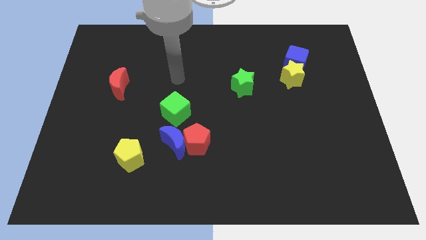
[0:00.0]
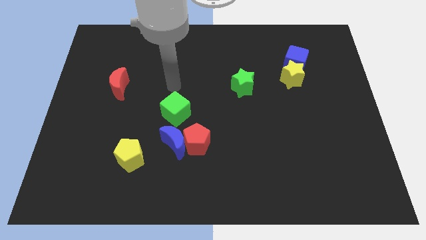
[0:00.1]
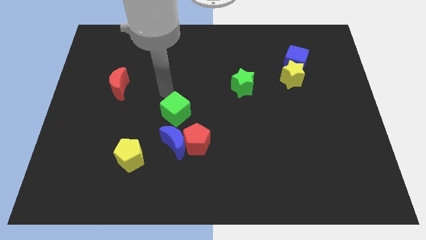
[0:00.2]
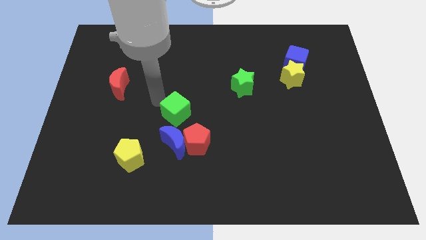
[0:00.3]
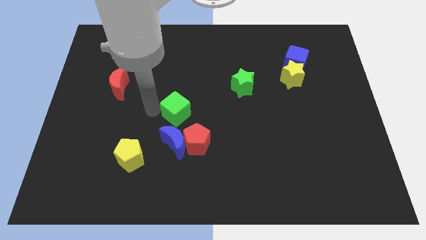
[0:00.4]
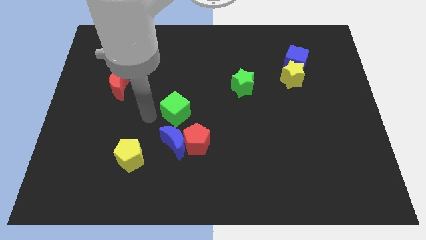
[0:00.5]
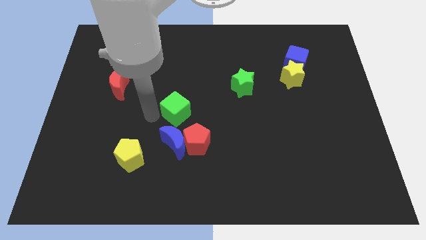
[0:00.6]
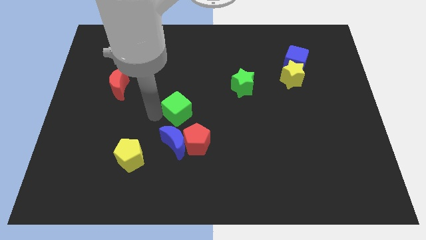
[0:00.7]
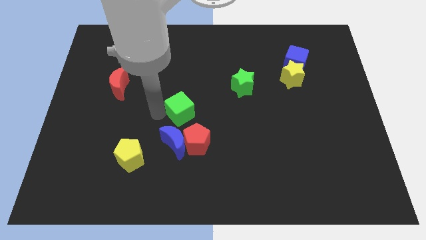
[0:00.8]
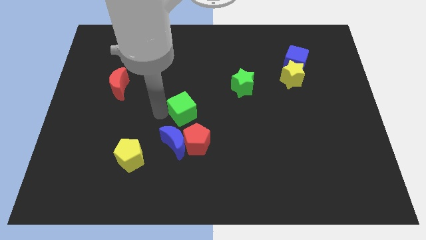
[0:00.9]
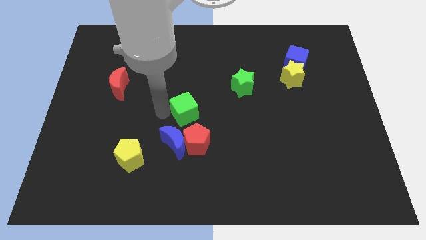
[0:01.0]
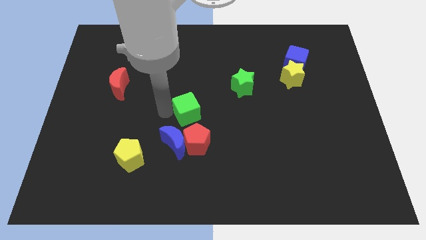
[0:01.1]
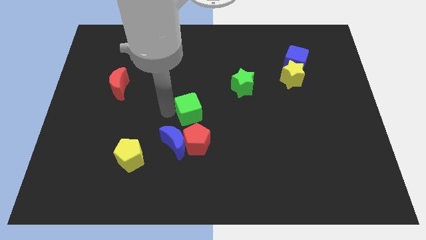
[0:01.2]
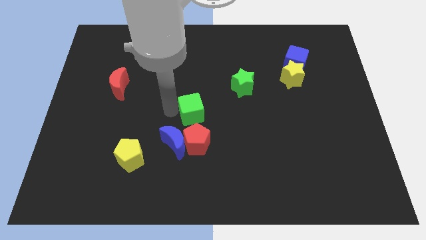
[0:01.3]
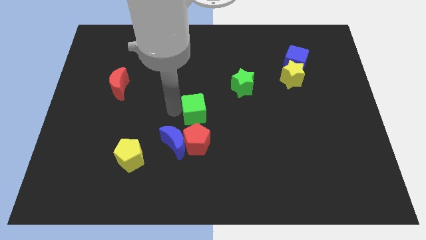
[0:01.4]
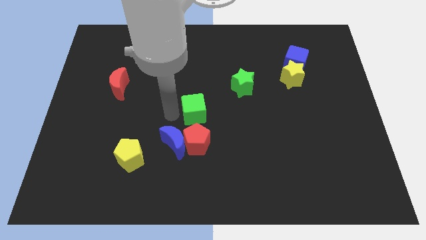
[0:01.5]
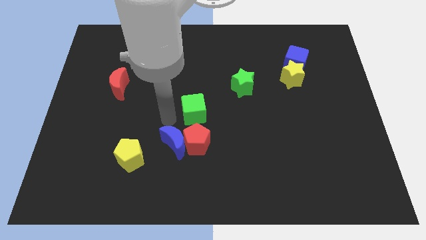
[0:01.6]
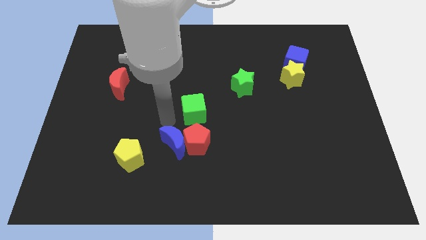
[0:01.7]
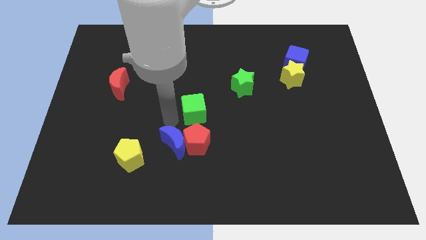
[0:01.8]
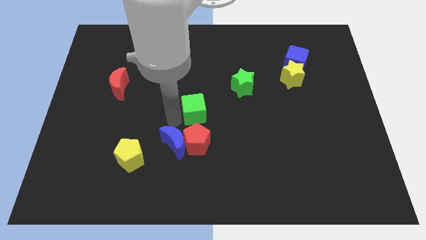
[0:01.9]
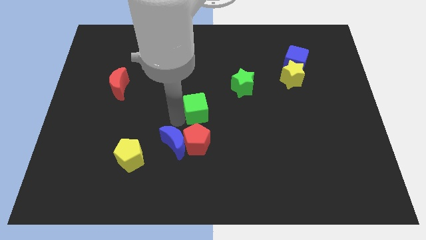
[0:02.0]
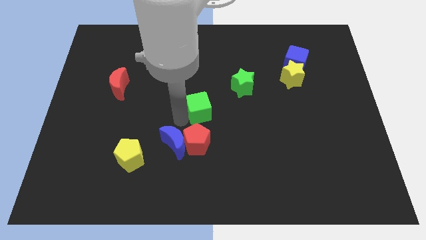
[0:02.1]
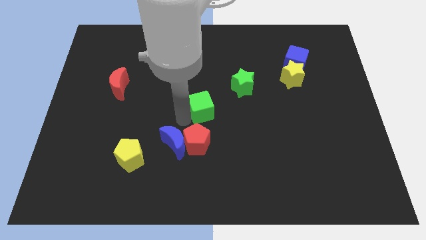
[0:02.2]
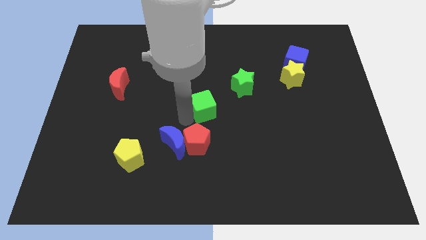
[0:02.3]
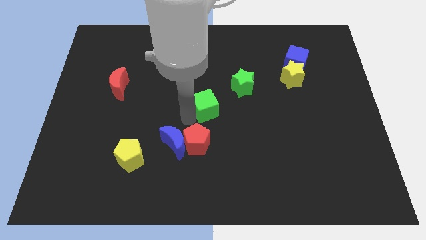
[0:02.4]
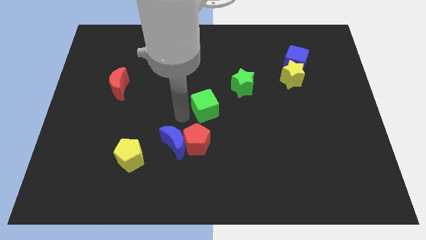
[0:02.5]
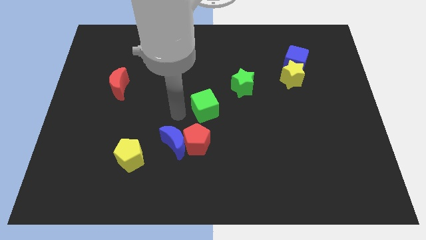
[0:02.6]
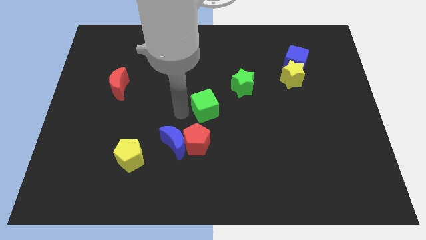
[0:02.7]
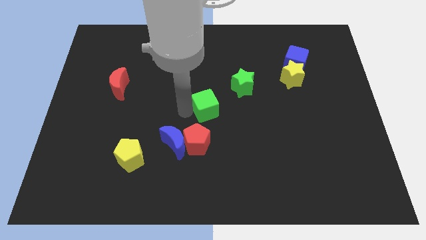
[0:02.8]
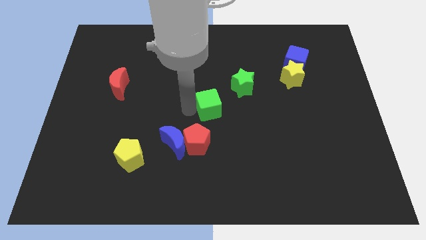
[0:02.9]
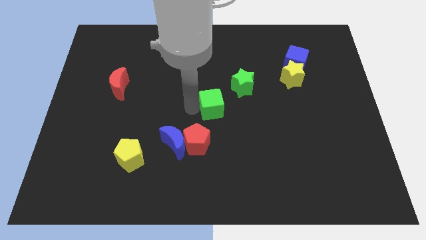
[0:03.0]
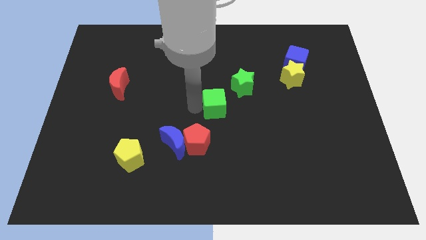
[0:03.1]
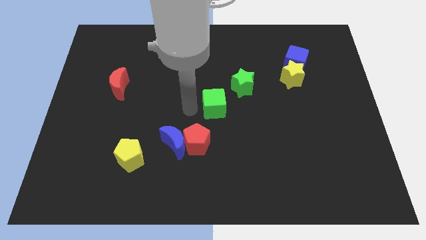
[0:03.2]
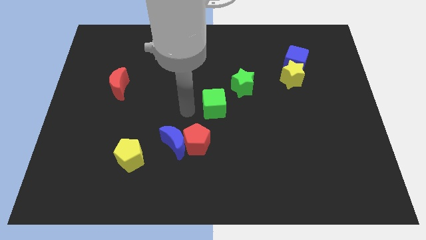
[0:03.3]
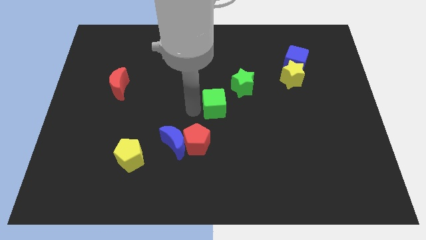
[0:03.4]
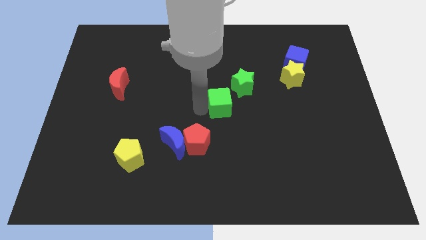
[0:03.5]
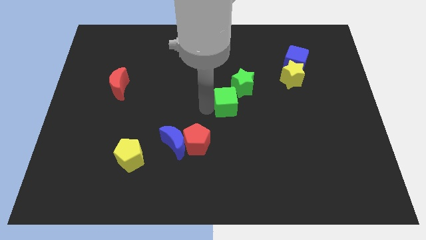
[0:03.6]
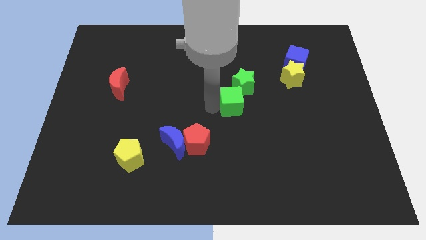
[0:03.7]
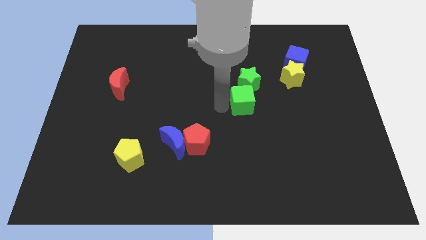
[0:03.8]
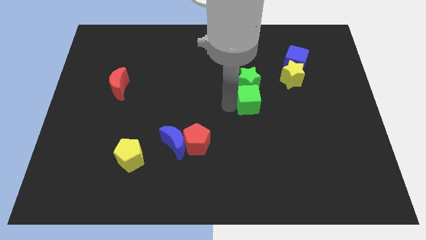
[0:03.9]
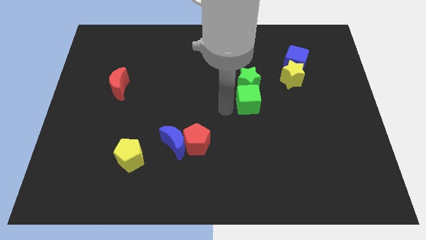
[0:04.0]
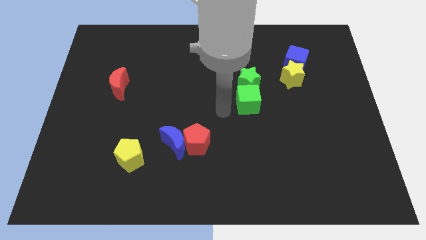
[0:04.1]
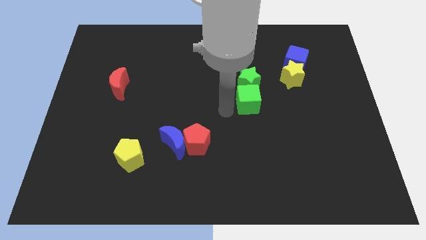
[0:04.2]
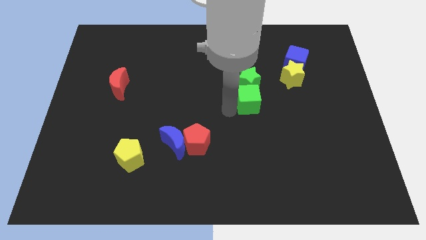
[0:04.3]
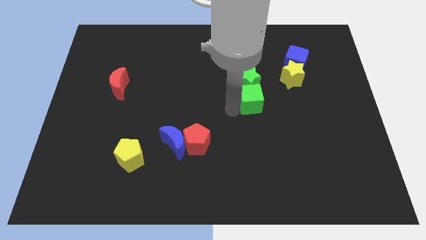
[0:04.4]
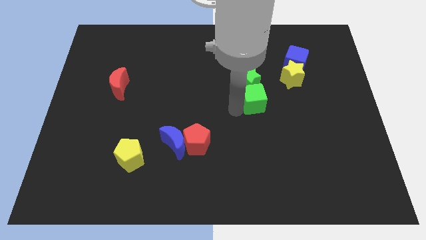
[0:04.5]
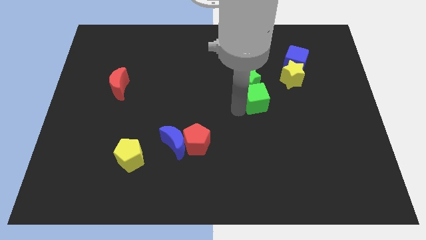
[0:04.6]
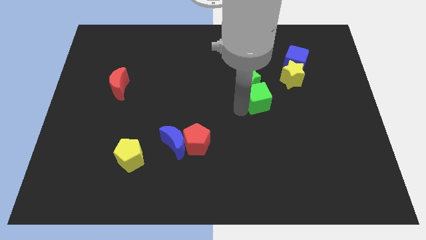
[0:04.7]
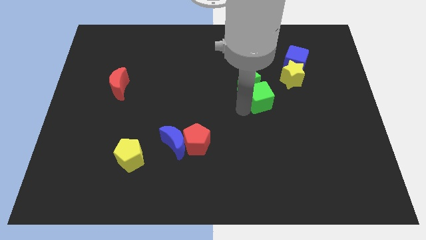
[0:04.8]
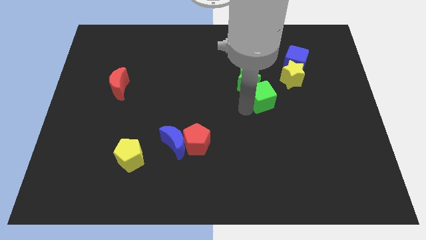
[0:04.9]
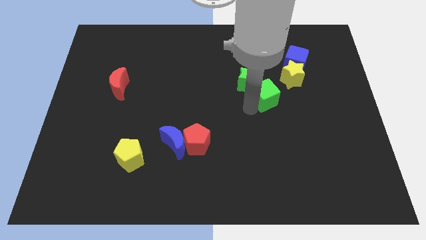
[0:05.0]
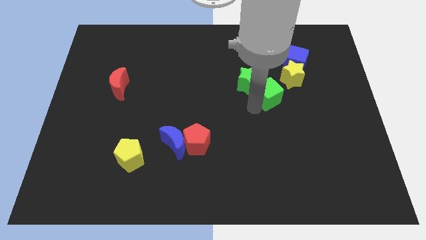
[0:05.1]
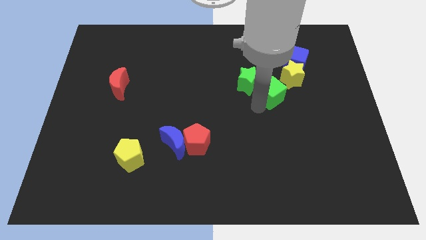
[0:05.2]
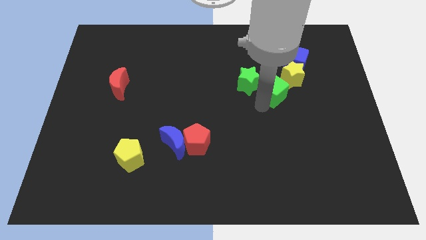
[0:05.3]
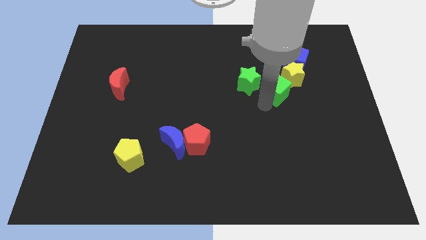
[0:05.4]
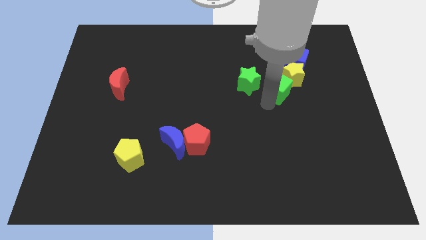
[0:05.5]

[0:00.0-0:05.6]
push the green cube towards the yellow star

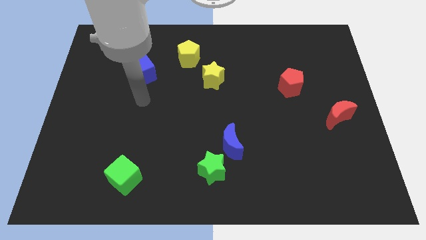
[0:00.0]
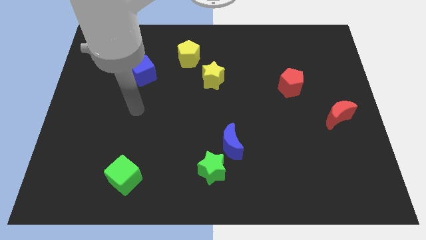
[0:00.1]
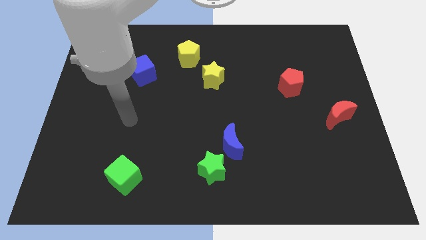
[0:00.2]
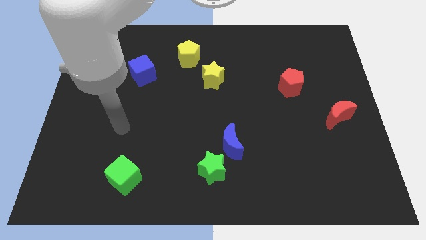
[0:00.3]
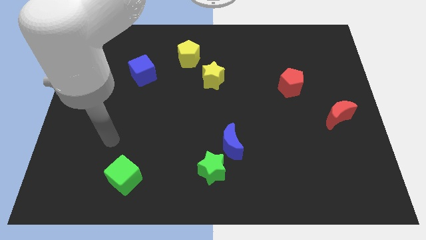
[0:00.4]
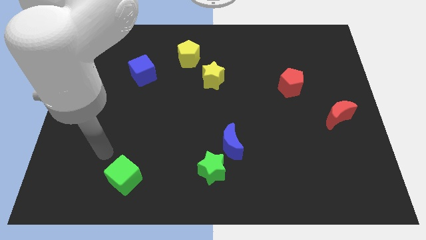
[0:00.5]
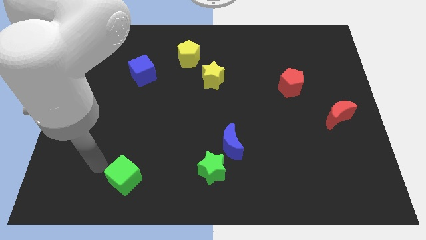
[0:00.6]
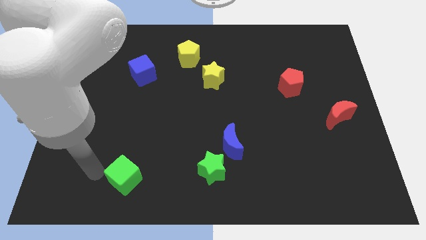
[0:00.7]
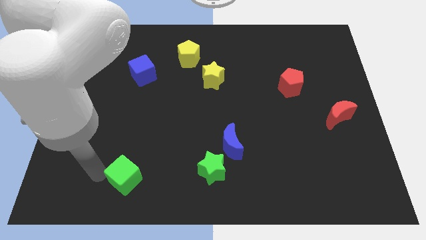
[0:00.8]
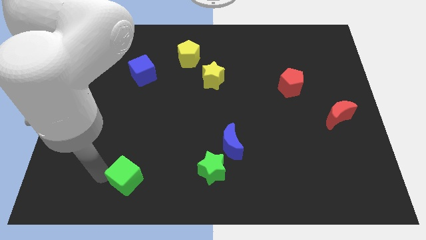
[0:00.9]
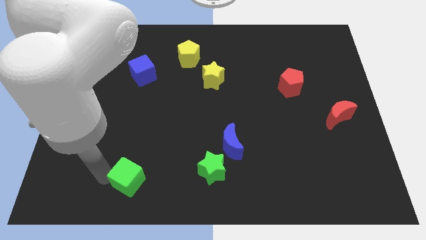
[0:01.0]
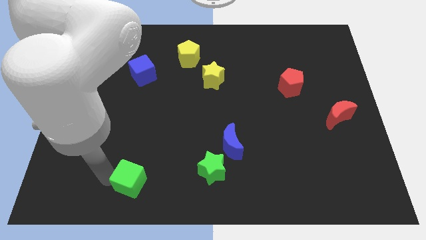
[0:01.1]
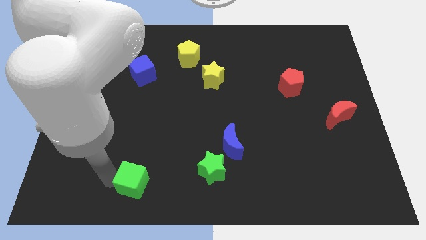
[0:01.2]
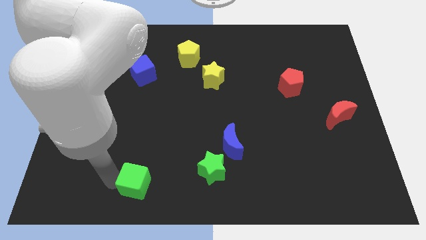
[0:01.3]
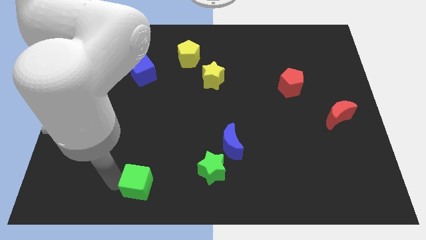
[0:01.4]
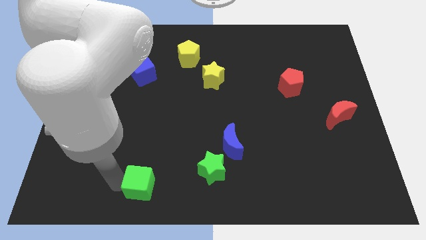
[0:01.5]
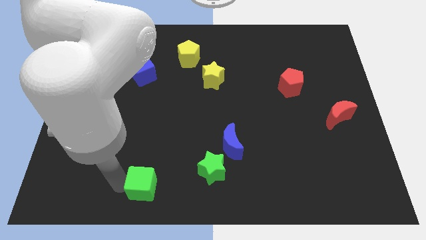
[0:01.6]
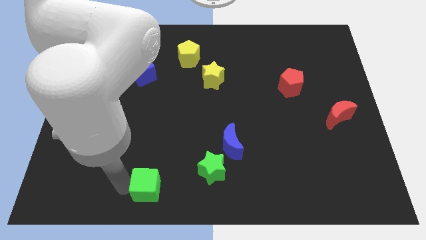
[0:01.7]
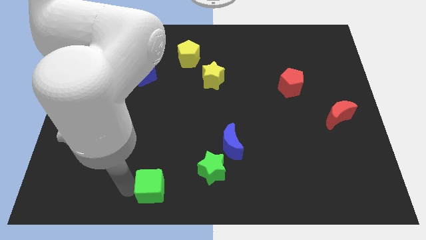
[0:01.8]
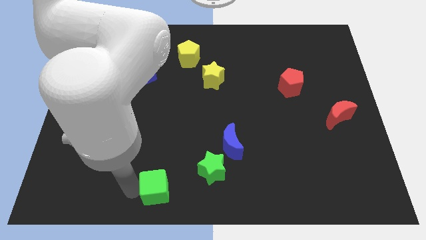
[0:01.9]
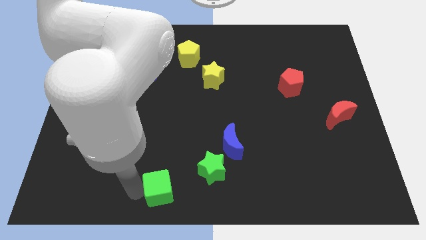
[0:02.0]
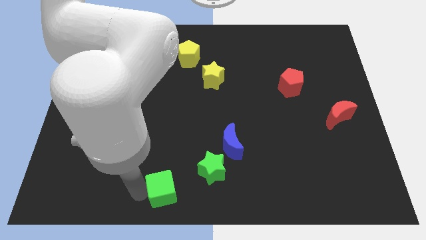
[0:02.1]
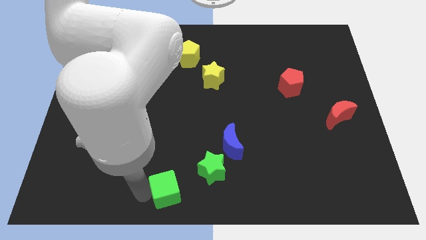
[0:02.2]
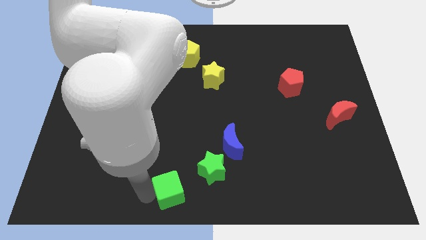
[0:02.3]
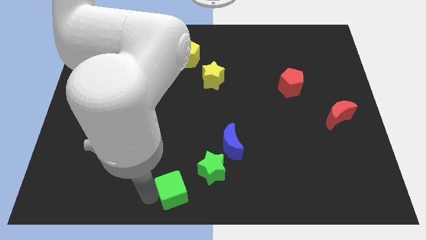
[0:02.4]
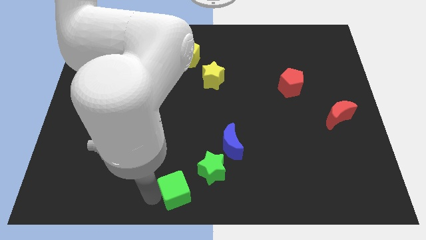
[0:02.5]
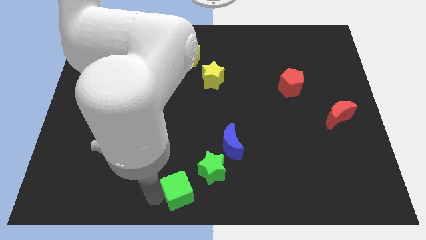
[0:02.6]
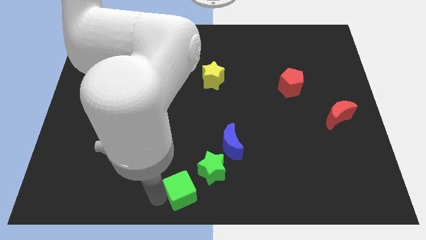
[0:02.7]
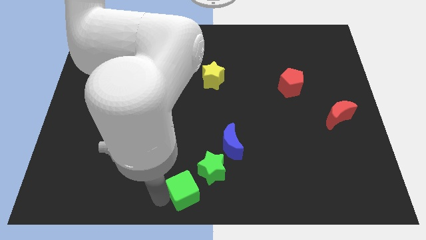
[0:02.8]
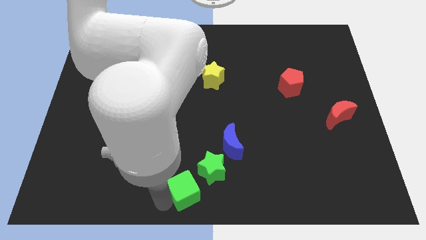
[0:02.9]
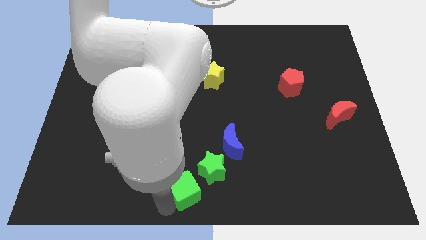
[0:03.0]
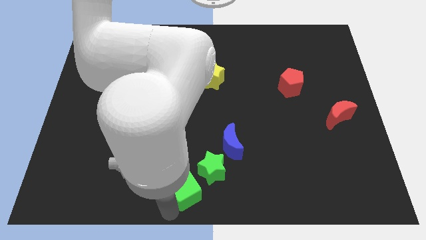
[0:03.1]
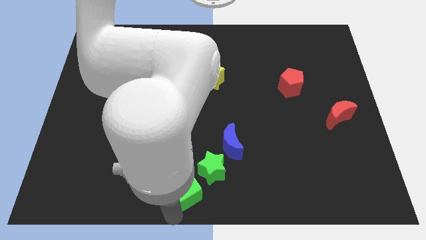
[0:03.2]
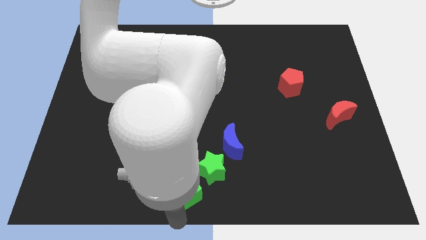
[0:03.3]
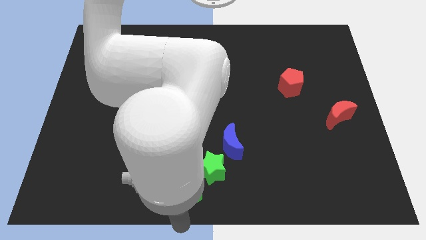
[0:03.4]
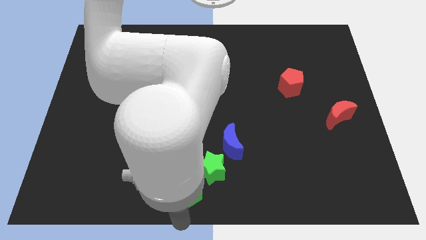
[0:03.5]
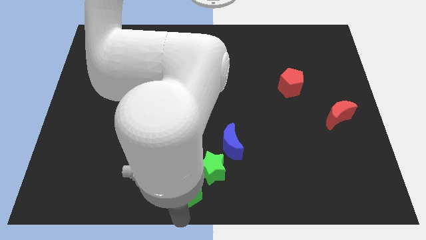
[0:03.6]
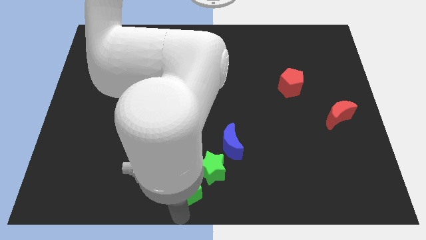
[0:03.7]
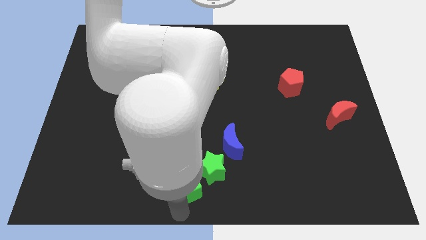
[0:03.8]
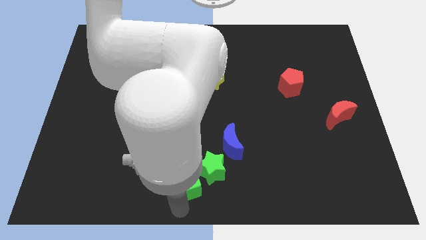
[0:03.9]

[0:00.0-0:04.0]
push the green cube to the green star
